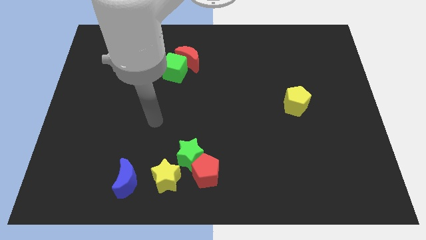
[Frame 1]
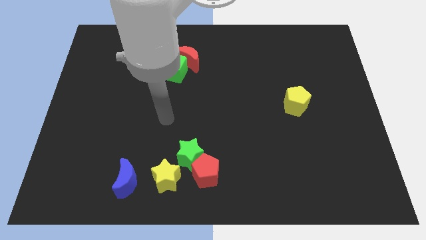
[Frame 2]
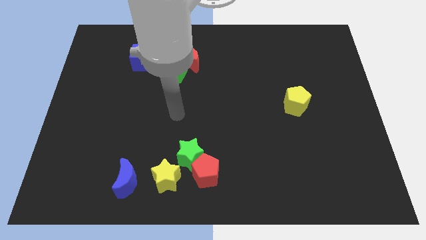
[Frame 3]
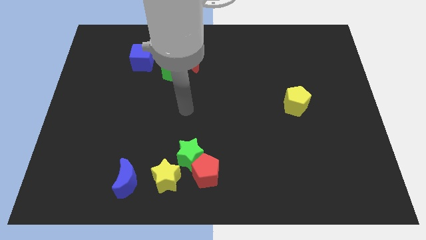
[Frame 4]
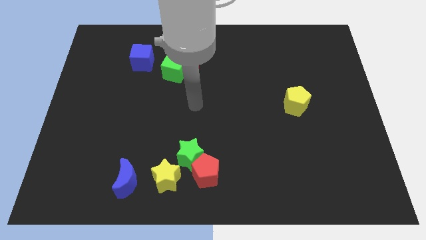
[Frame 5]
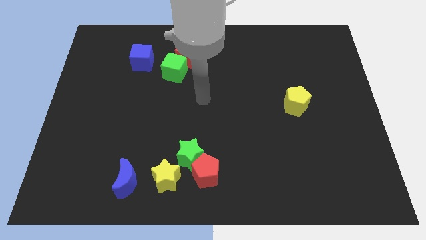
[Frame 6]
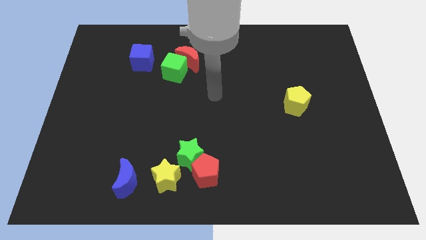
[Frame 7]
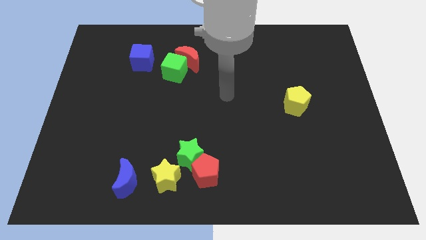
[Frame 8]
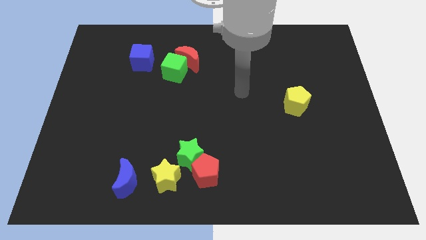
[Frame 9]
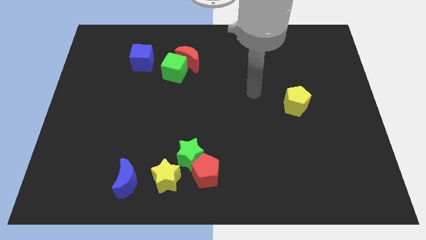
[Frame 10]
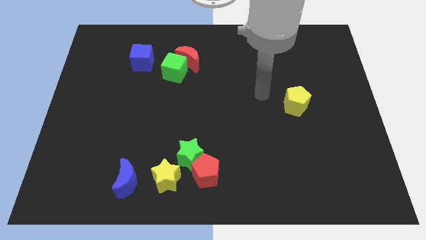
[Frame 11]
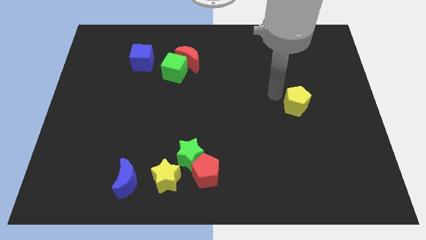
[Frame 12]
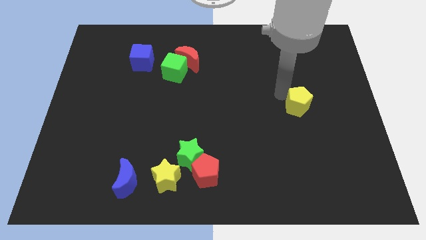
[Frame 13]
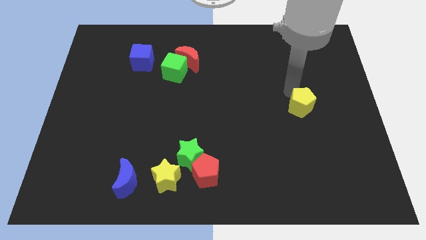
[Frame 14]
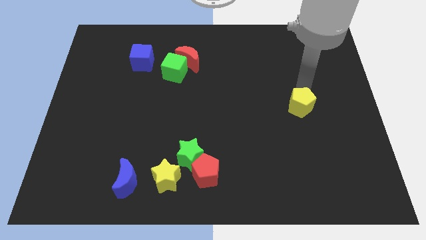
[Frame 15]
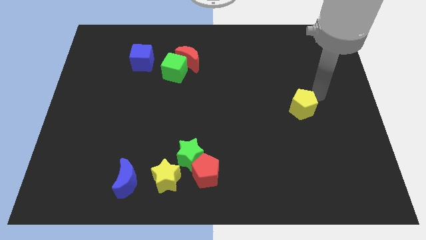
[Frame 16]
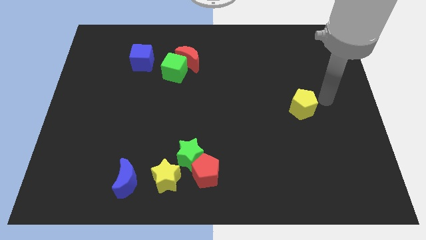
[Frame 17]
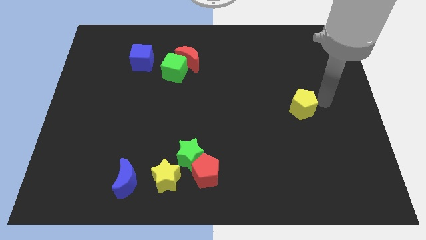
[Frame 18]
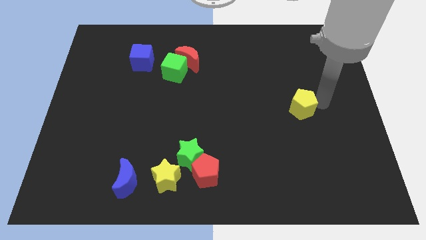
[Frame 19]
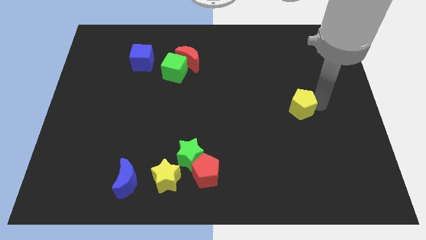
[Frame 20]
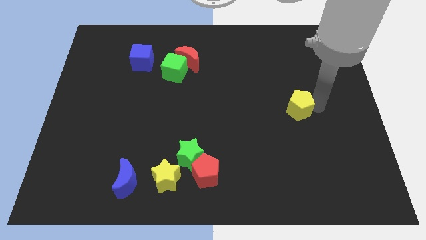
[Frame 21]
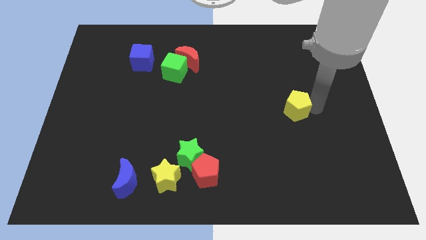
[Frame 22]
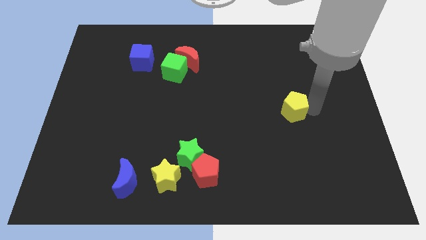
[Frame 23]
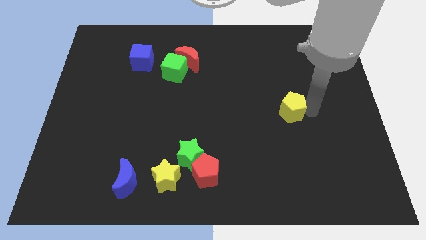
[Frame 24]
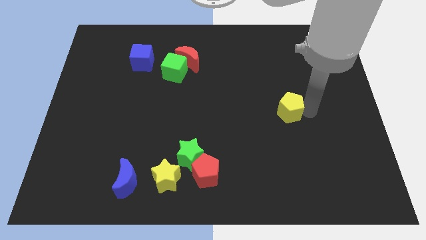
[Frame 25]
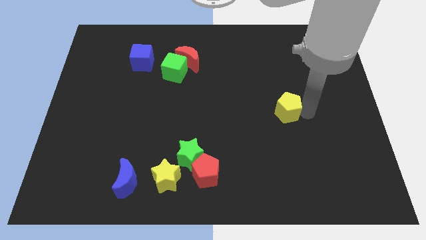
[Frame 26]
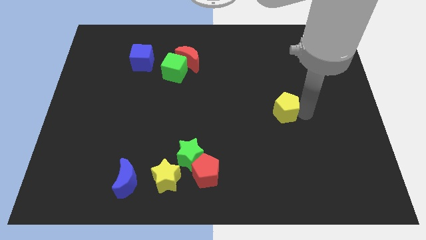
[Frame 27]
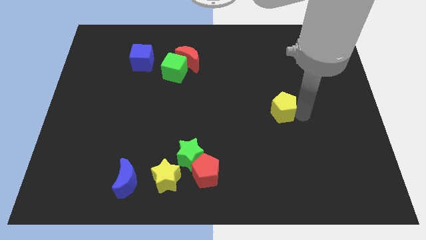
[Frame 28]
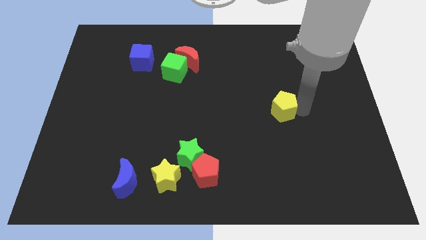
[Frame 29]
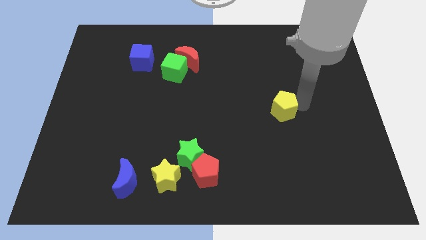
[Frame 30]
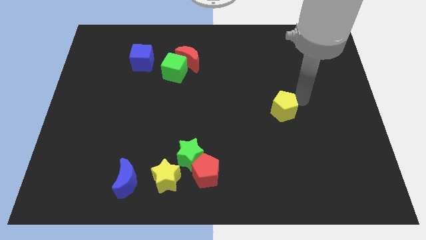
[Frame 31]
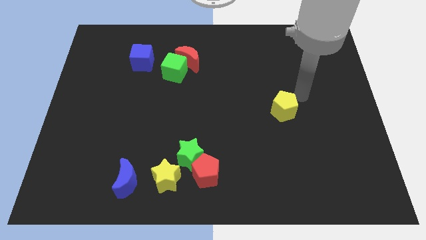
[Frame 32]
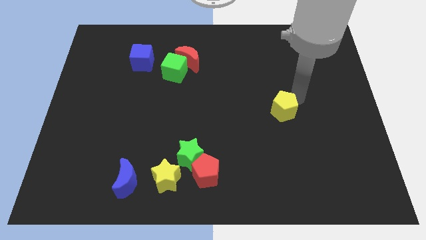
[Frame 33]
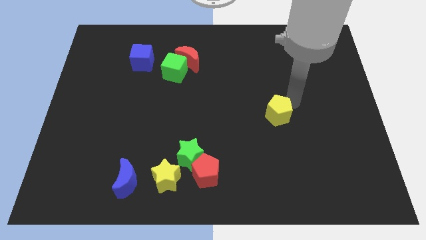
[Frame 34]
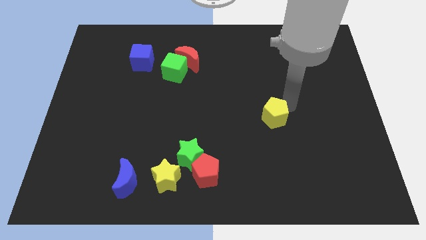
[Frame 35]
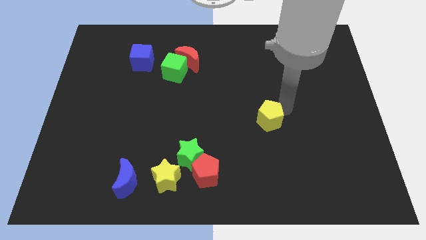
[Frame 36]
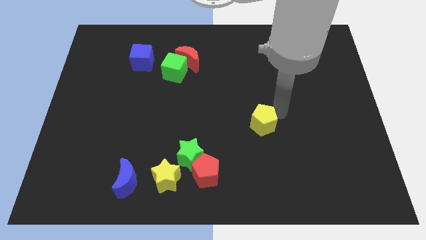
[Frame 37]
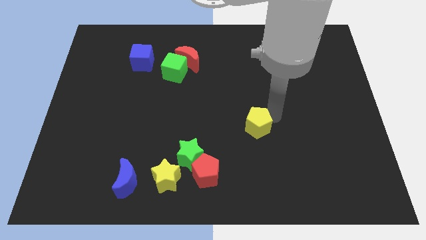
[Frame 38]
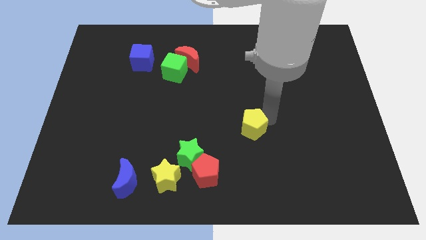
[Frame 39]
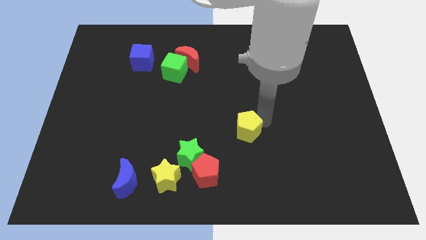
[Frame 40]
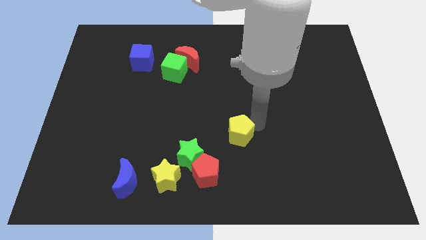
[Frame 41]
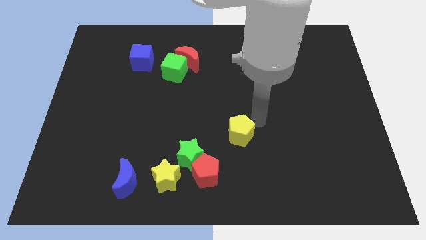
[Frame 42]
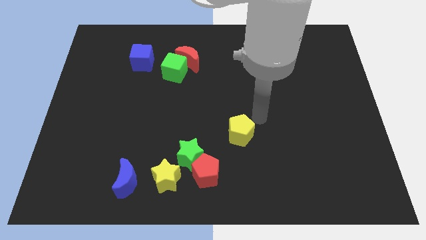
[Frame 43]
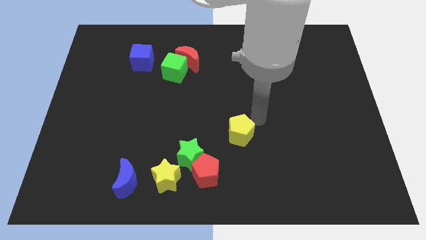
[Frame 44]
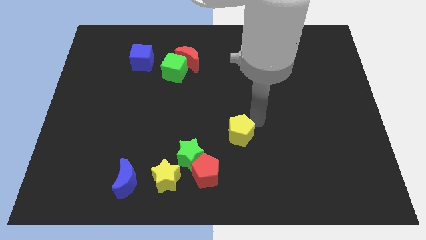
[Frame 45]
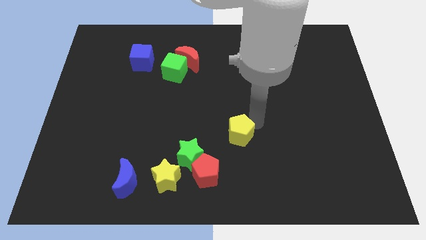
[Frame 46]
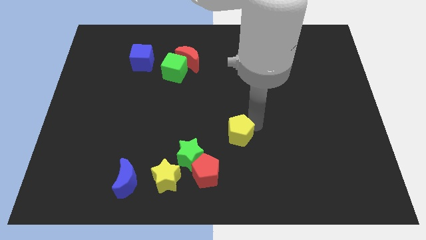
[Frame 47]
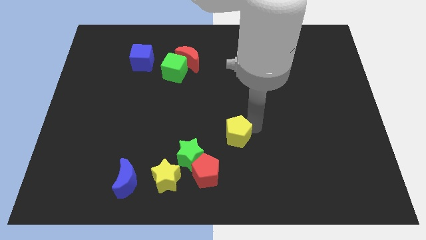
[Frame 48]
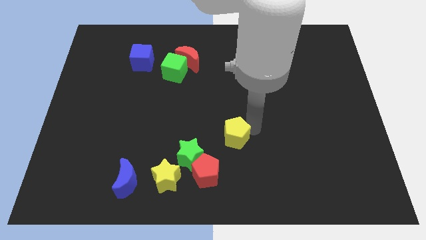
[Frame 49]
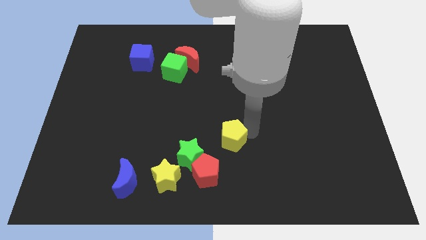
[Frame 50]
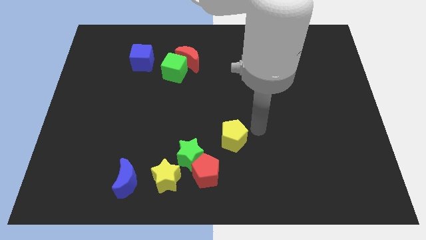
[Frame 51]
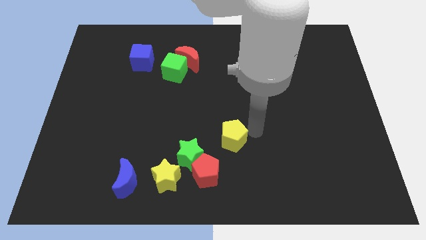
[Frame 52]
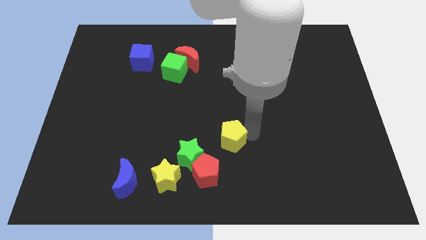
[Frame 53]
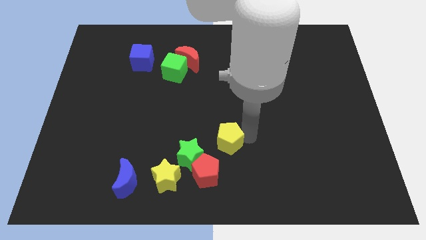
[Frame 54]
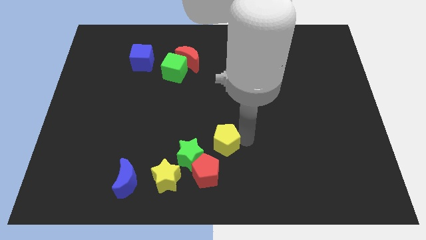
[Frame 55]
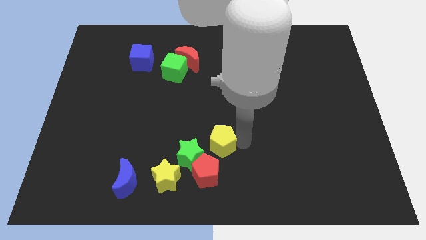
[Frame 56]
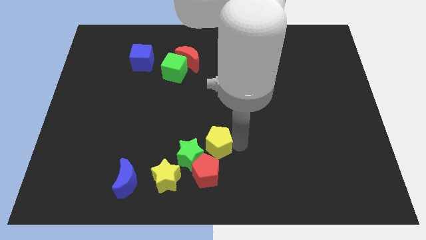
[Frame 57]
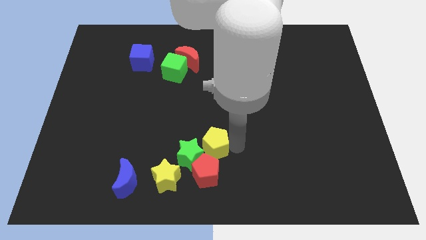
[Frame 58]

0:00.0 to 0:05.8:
slide the yellow pentagon to the green star

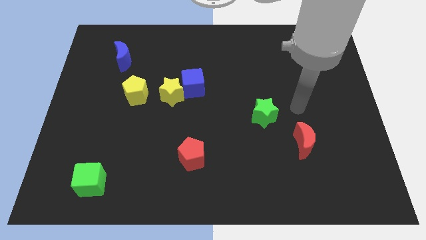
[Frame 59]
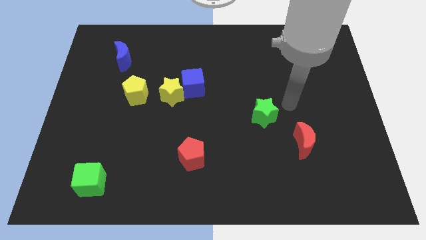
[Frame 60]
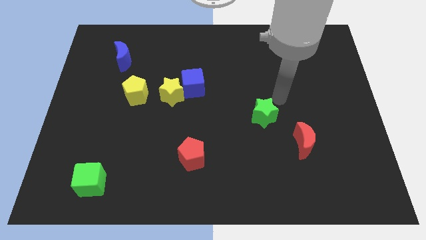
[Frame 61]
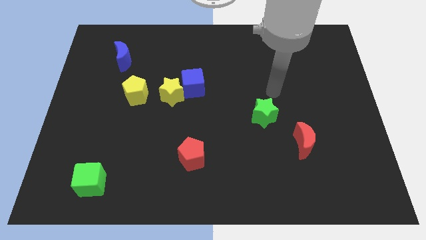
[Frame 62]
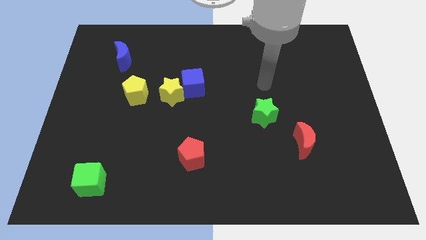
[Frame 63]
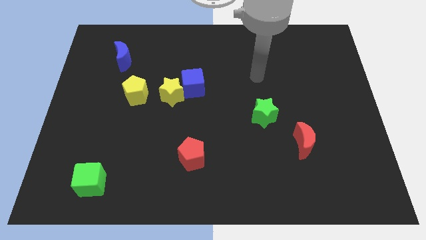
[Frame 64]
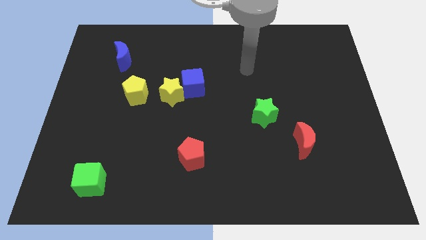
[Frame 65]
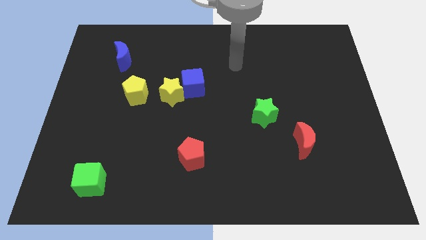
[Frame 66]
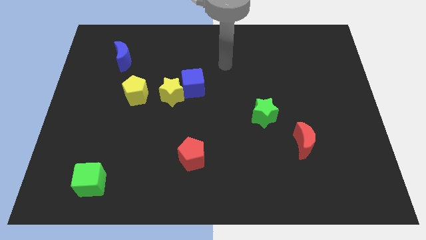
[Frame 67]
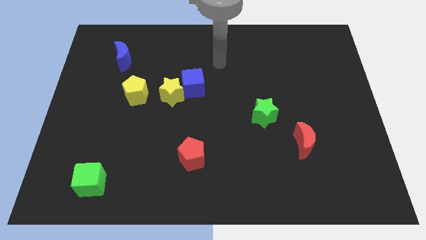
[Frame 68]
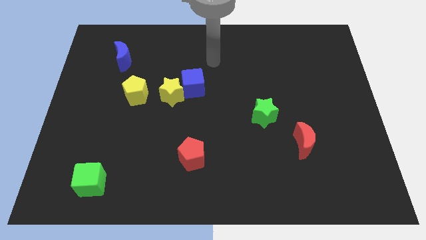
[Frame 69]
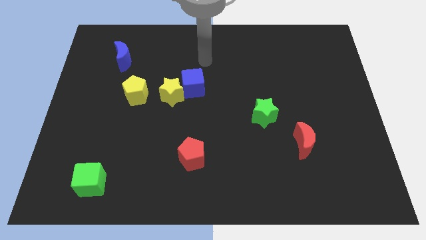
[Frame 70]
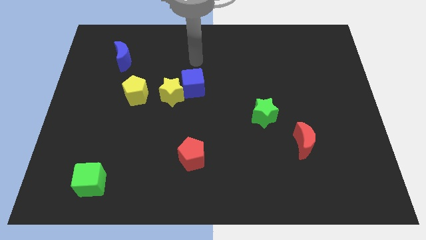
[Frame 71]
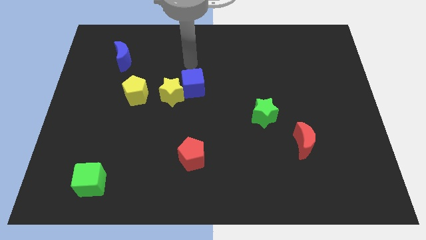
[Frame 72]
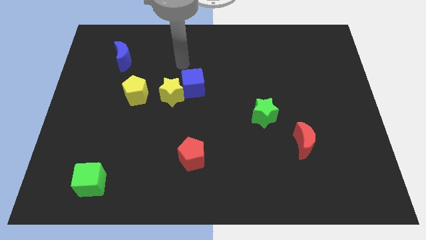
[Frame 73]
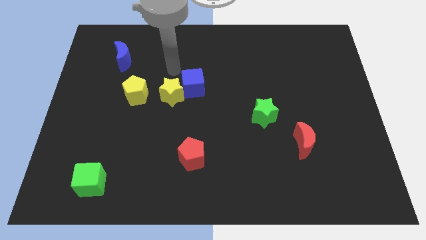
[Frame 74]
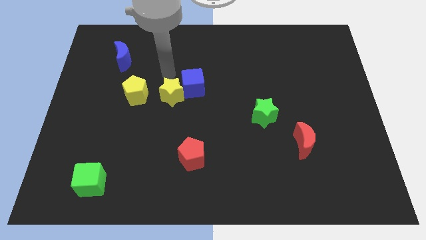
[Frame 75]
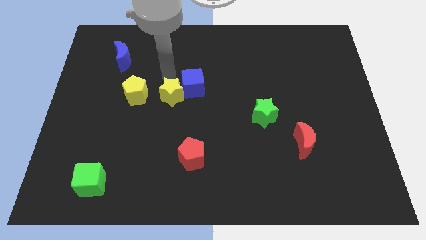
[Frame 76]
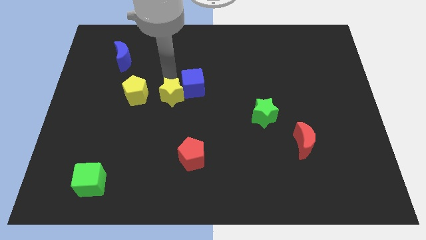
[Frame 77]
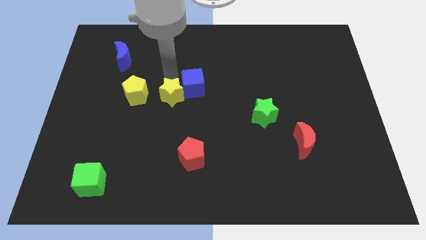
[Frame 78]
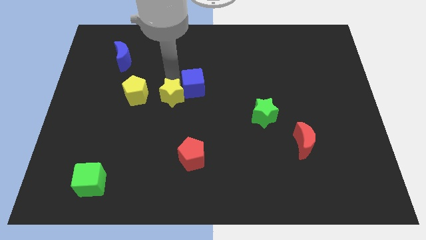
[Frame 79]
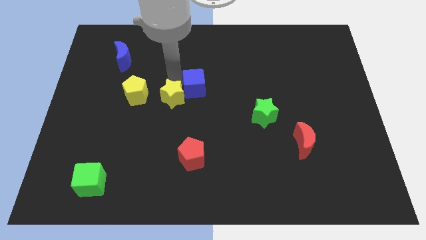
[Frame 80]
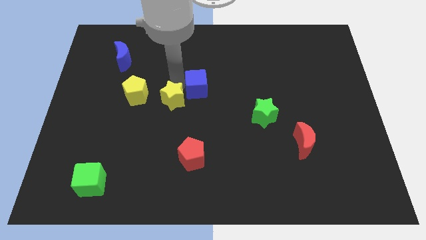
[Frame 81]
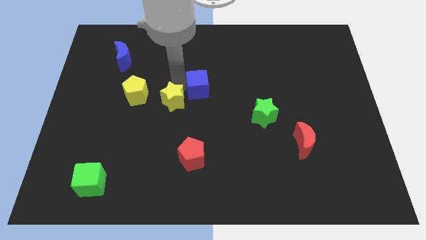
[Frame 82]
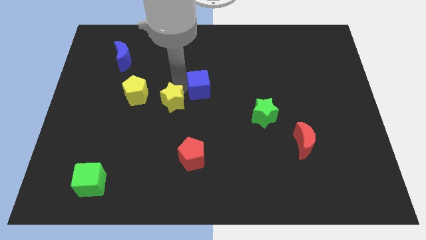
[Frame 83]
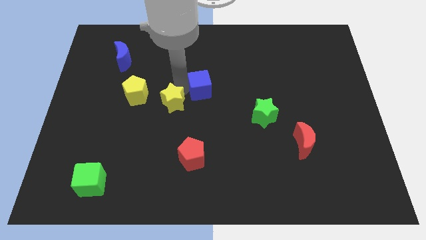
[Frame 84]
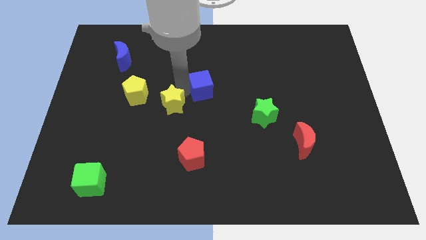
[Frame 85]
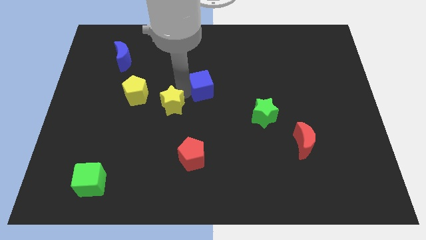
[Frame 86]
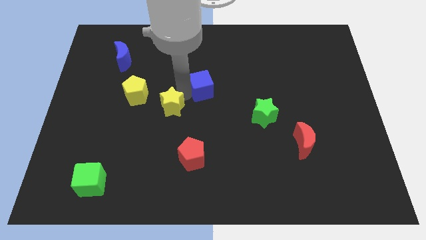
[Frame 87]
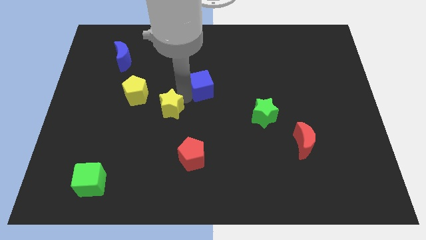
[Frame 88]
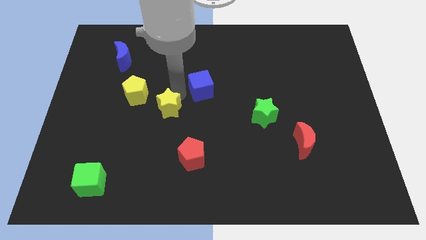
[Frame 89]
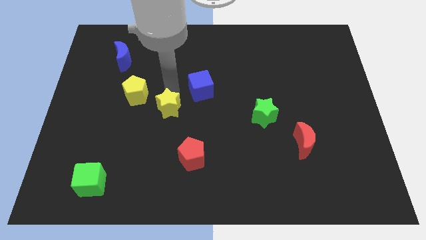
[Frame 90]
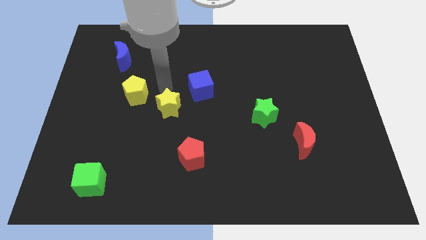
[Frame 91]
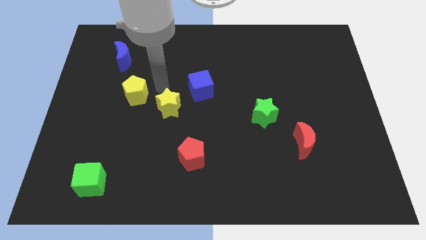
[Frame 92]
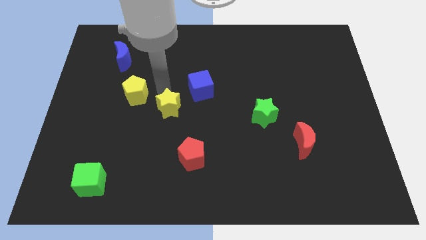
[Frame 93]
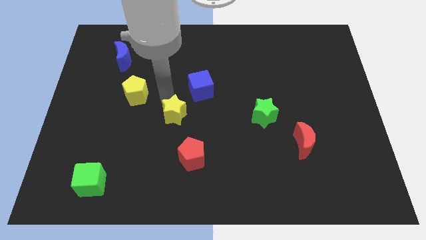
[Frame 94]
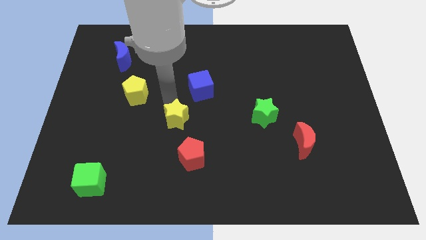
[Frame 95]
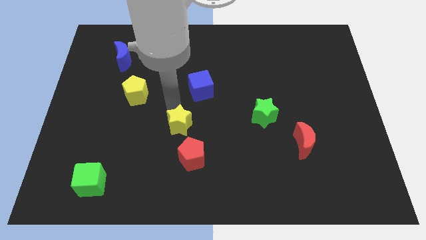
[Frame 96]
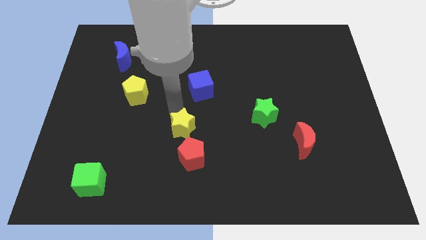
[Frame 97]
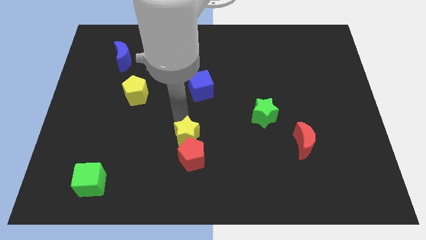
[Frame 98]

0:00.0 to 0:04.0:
move the yellow star to the red pentagon
